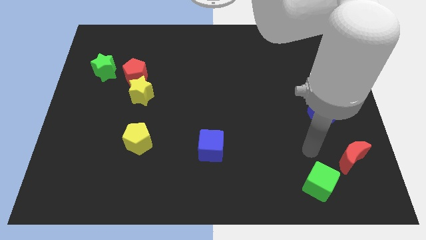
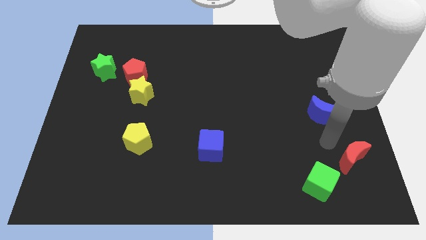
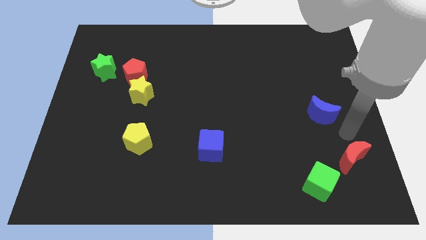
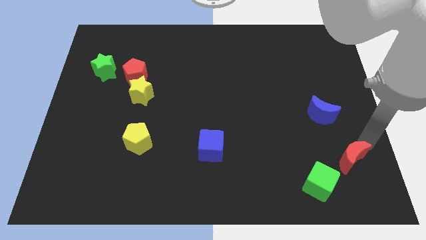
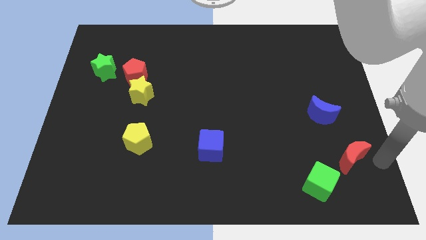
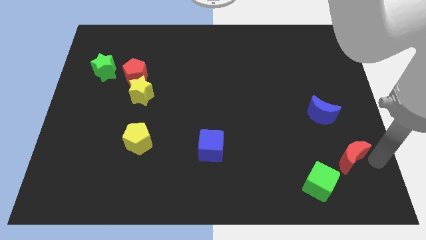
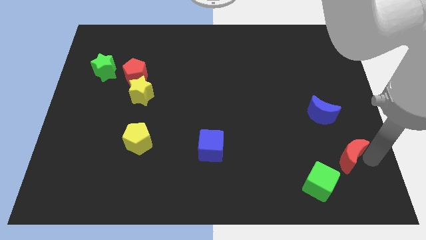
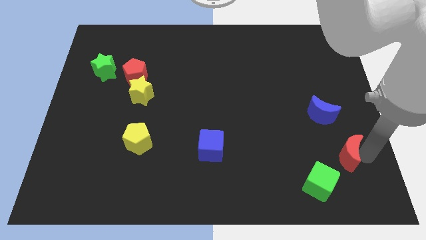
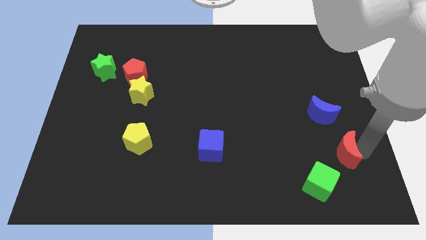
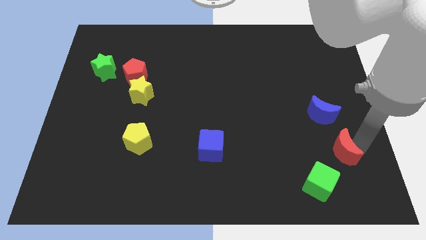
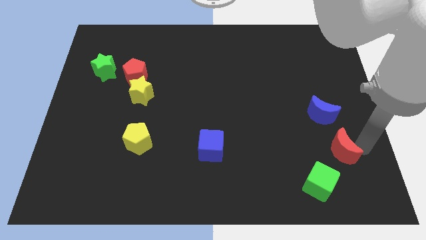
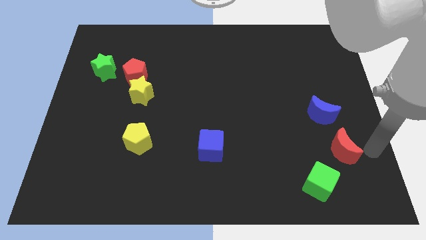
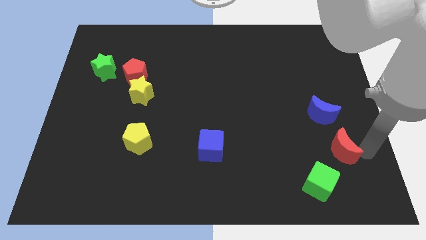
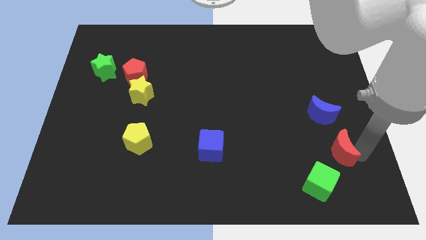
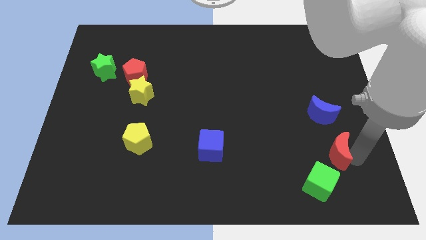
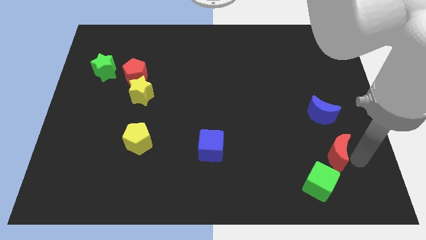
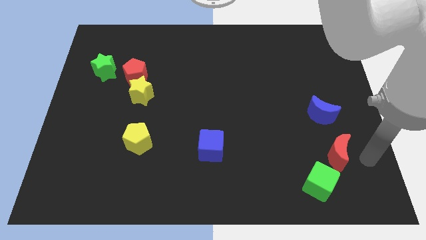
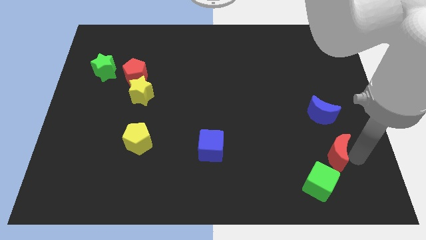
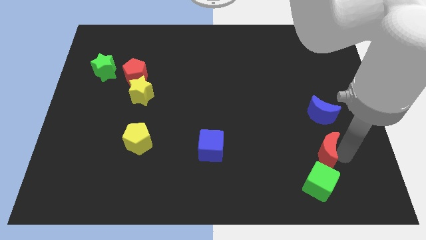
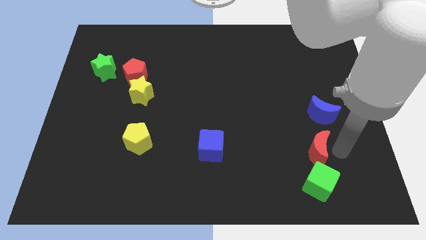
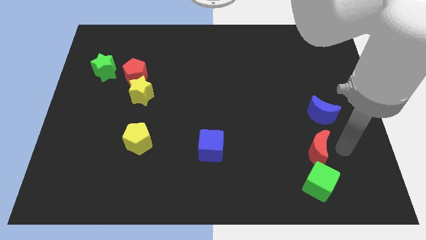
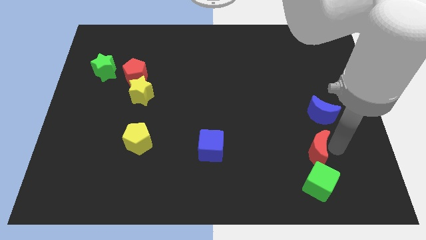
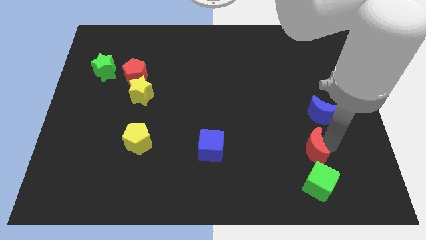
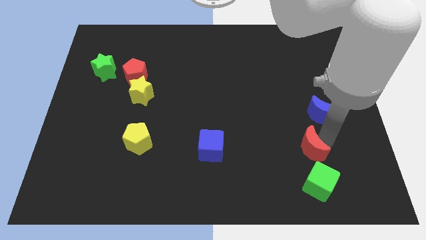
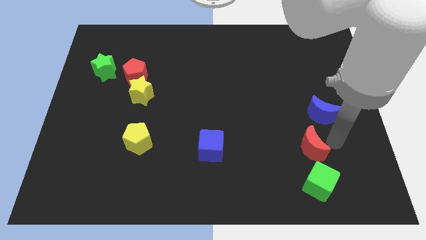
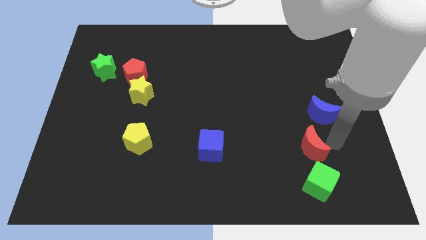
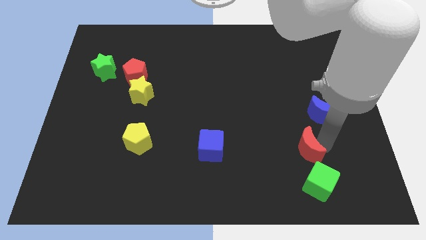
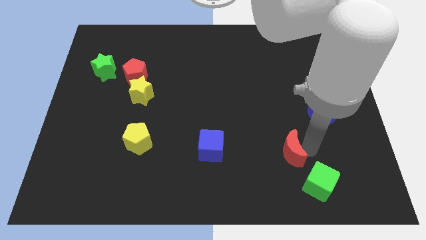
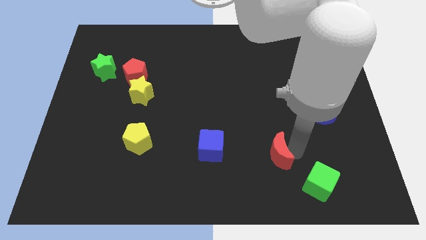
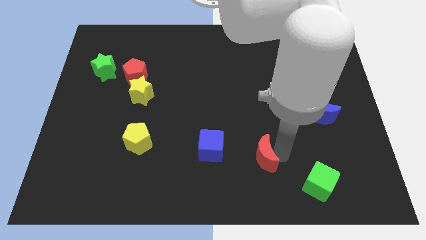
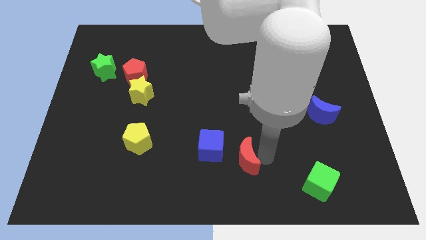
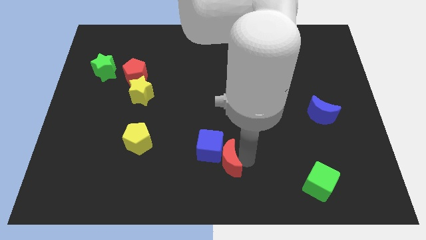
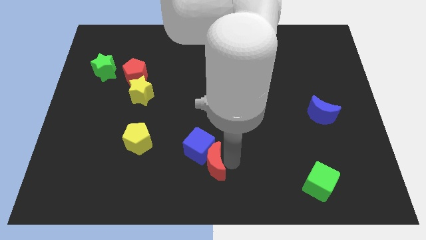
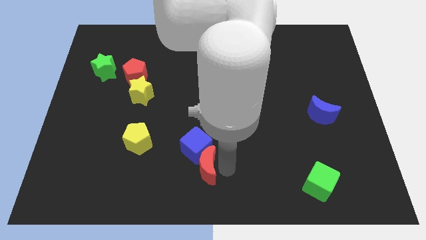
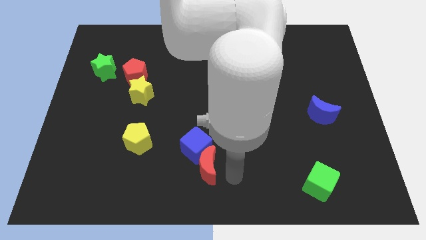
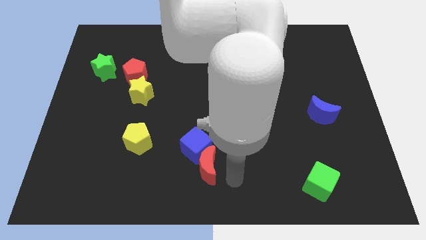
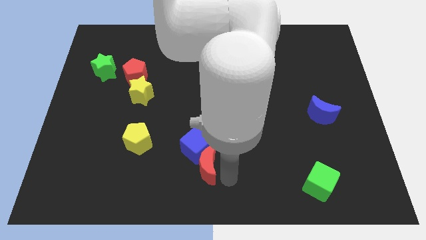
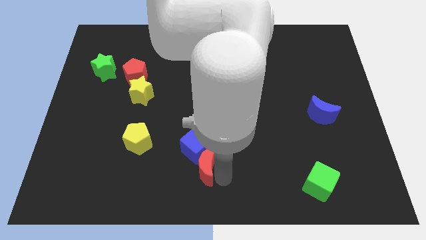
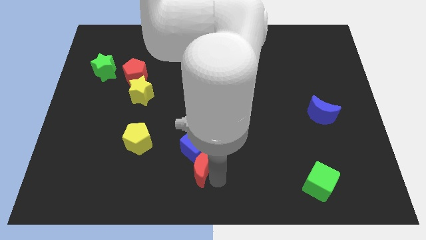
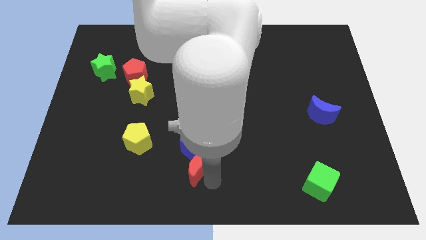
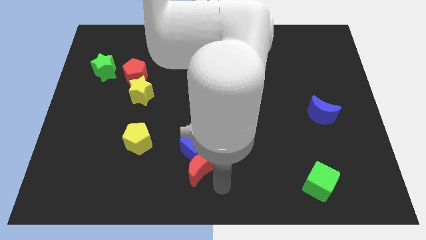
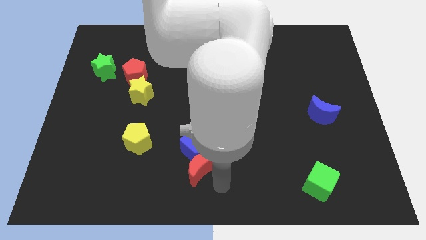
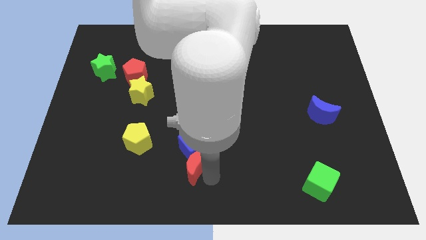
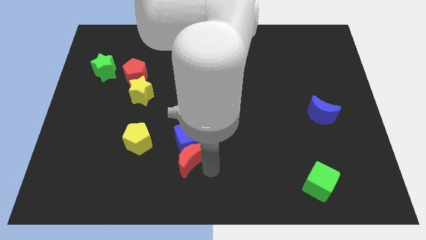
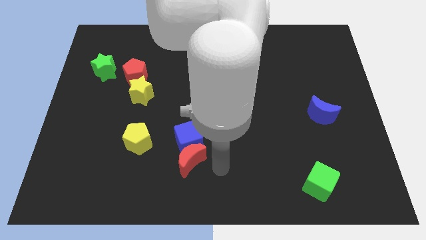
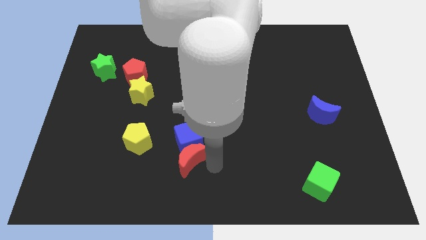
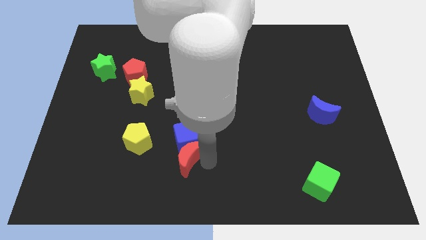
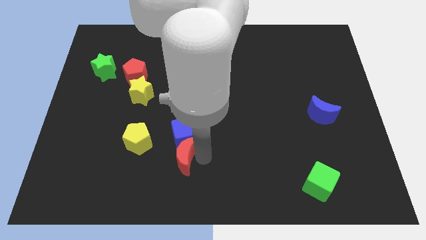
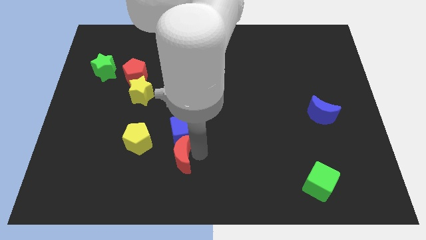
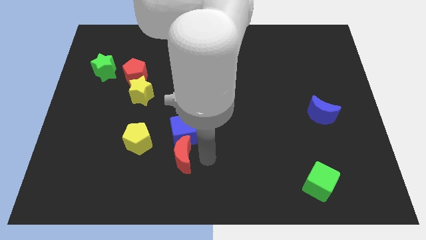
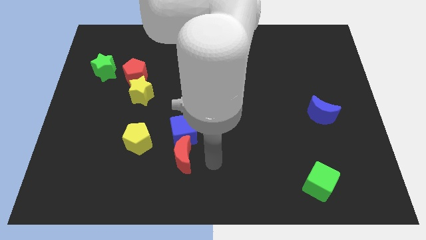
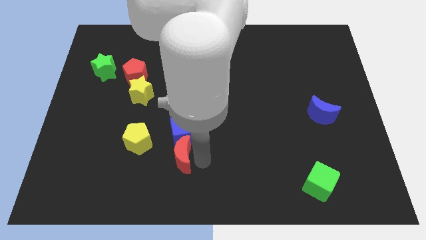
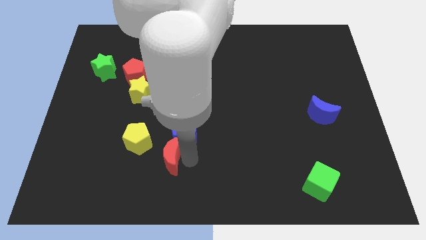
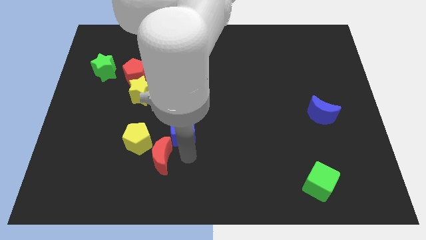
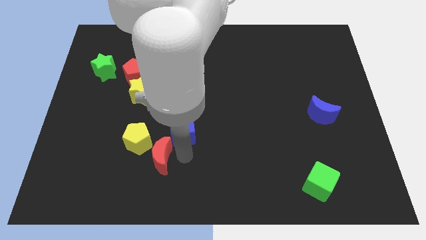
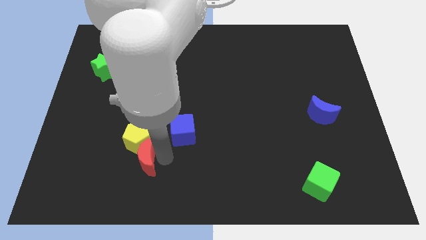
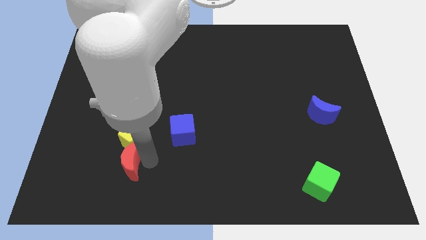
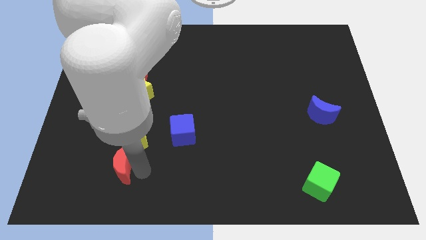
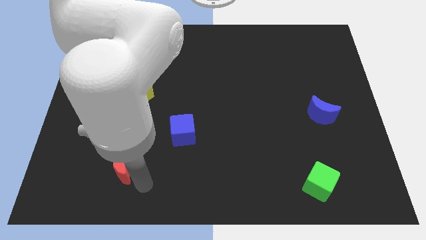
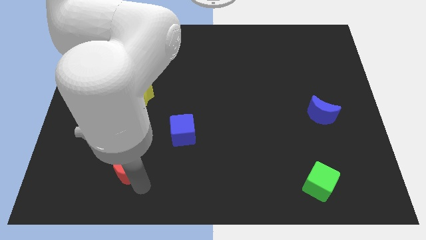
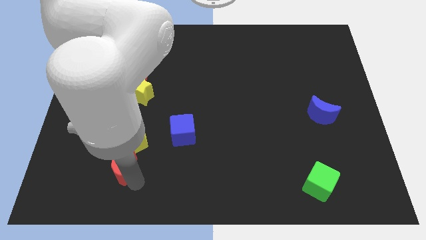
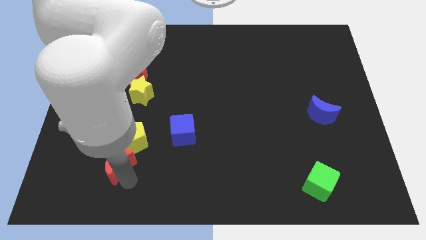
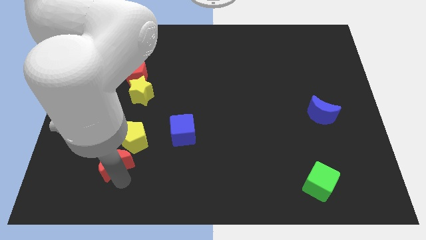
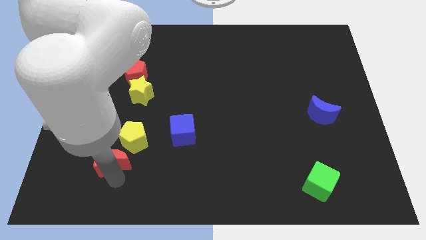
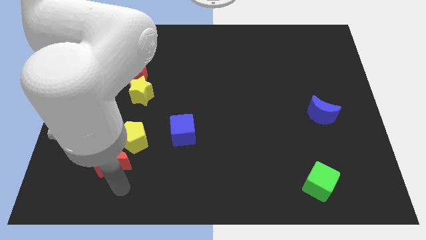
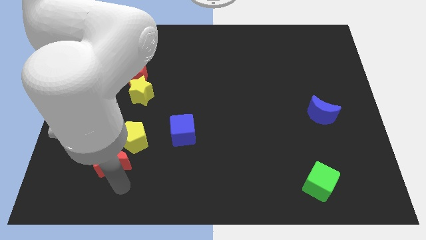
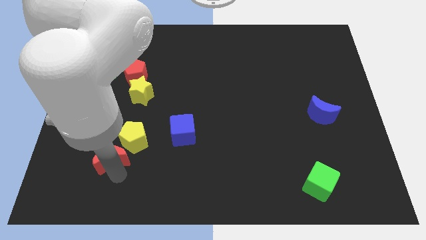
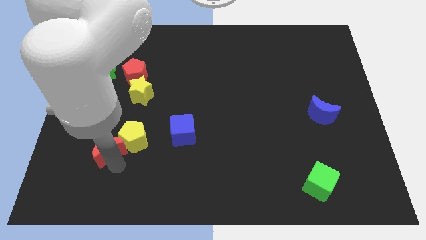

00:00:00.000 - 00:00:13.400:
put the red moon left of the yellow pentagon
